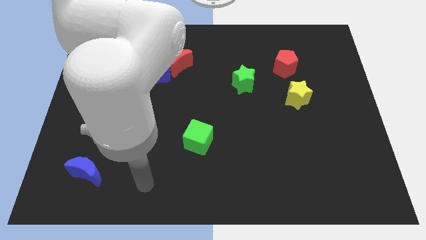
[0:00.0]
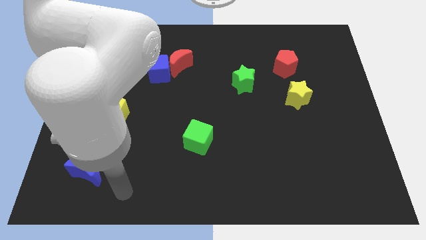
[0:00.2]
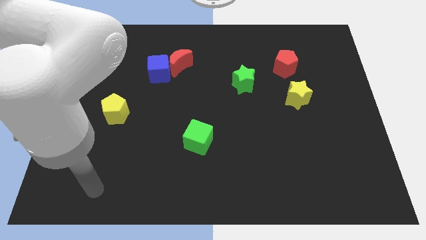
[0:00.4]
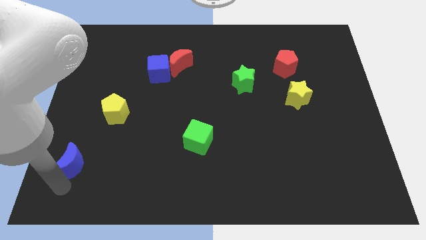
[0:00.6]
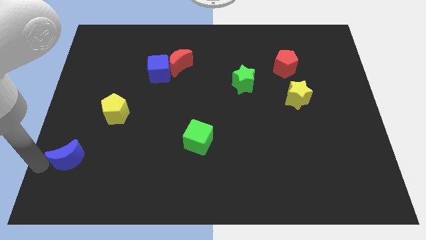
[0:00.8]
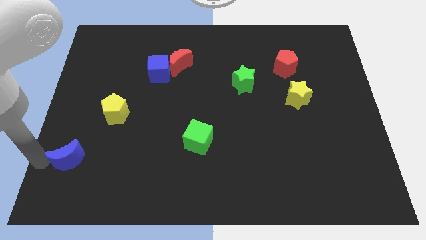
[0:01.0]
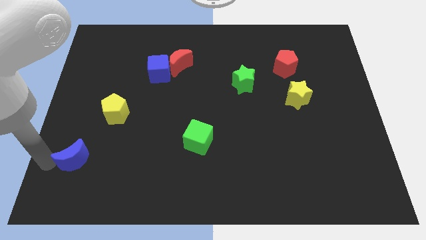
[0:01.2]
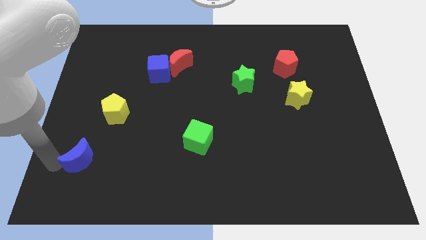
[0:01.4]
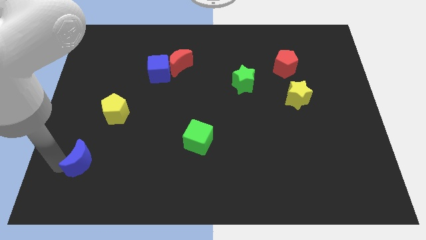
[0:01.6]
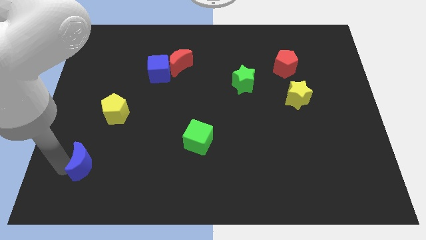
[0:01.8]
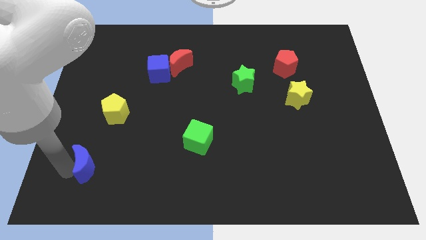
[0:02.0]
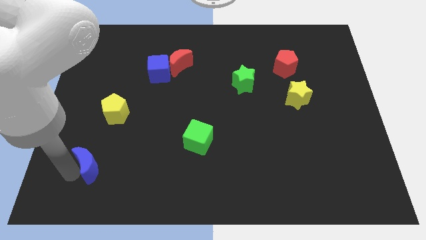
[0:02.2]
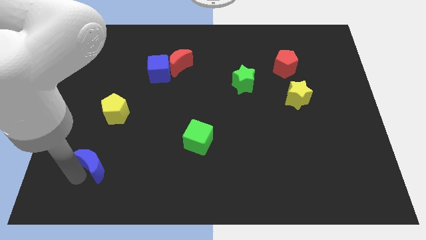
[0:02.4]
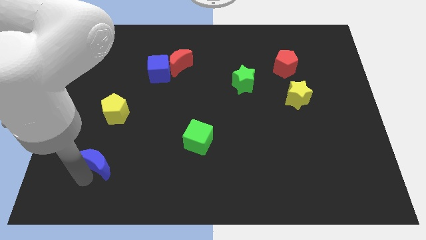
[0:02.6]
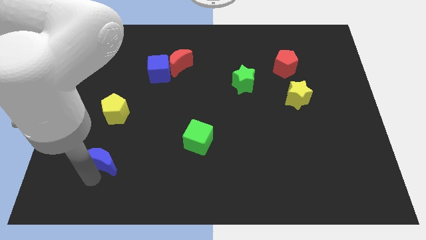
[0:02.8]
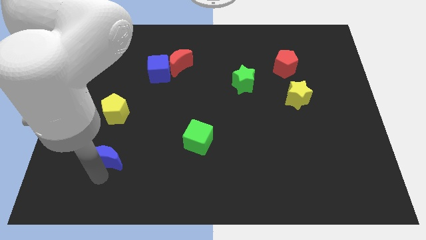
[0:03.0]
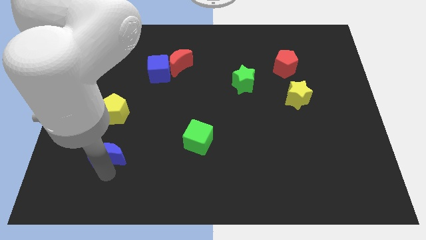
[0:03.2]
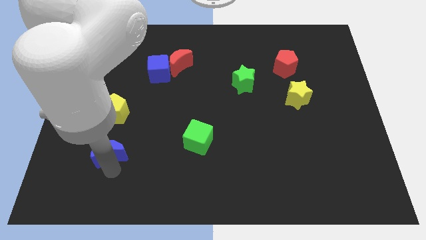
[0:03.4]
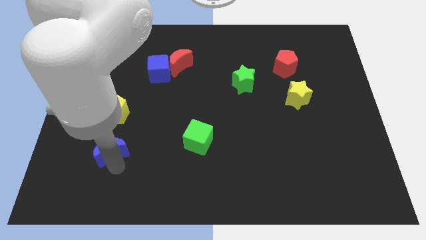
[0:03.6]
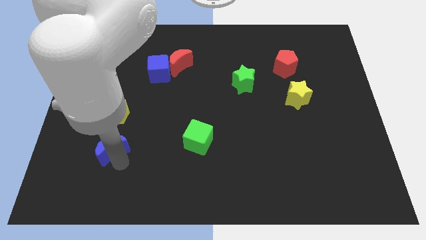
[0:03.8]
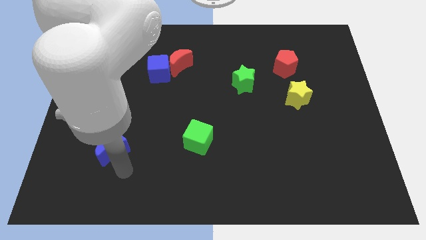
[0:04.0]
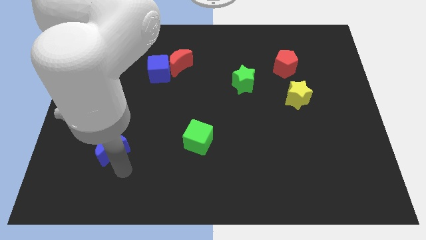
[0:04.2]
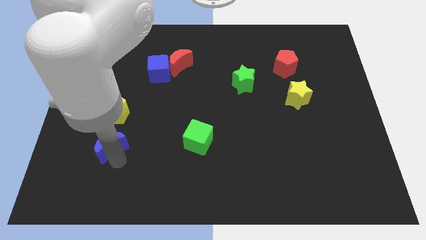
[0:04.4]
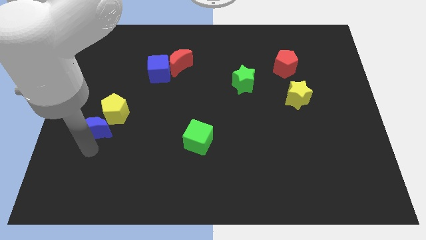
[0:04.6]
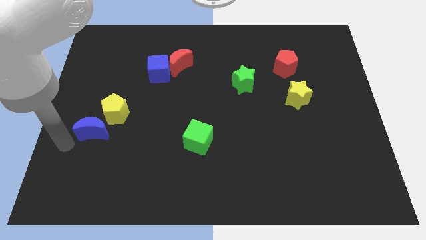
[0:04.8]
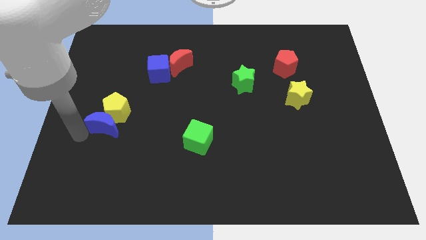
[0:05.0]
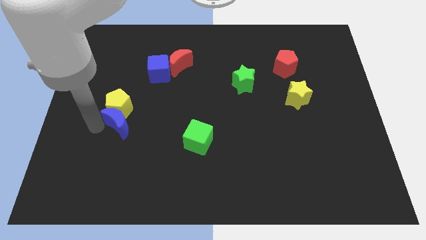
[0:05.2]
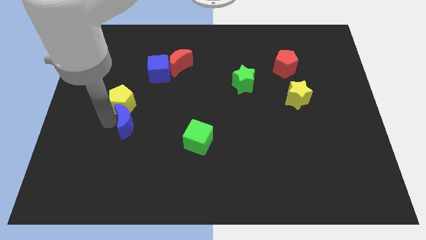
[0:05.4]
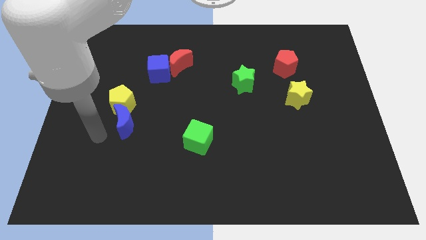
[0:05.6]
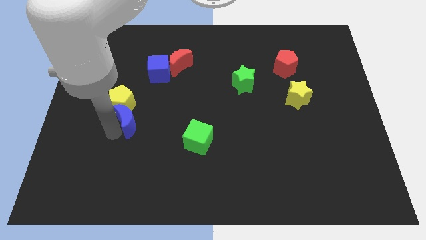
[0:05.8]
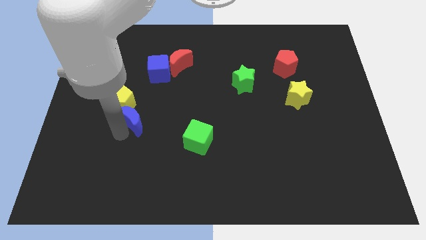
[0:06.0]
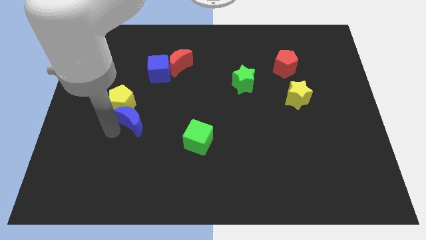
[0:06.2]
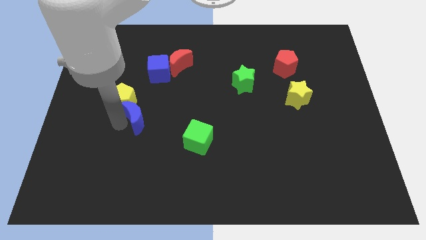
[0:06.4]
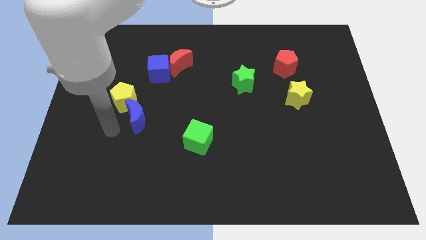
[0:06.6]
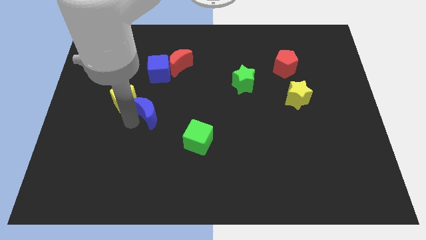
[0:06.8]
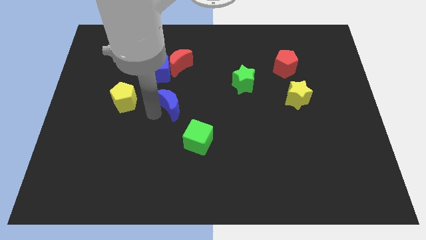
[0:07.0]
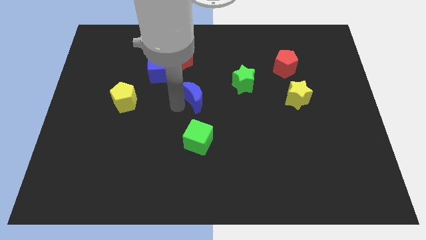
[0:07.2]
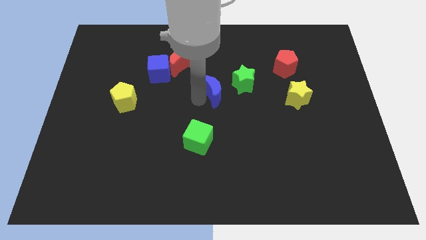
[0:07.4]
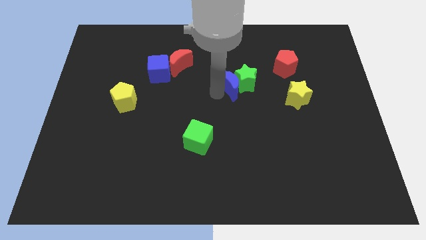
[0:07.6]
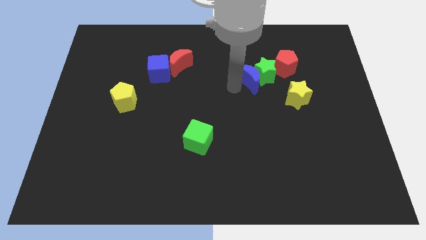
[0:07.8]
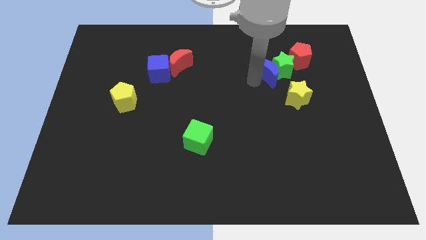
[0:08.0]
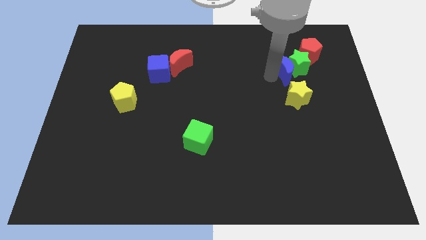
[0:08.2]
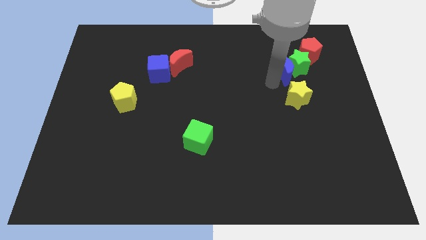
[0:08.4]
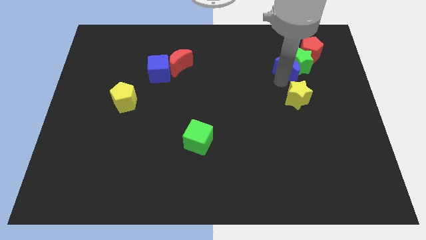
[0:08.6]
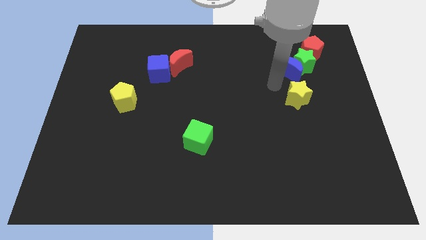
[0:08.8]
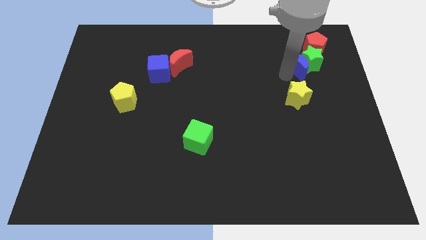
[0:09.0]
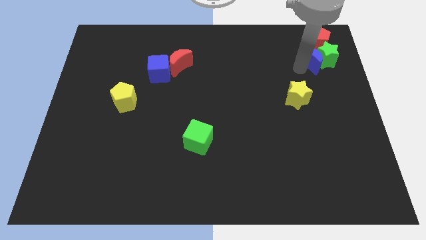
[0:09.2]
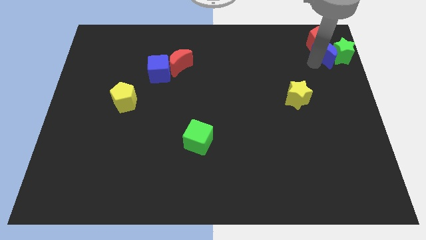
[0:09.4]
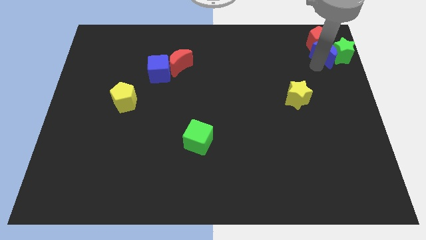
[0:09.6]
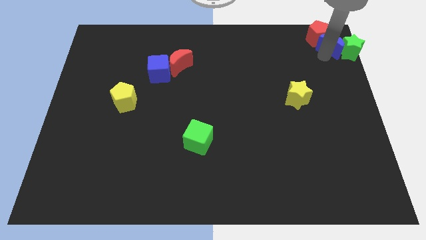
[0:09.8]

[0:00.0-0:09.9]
push the blue moon to the top right

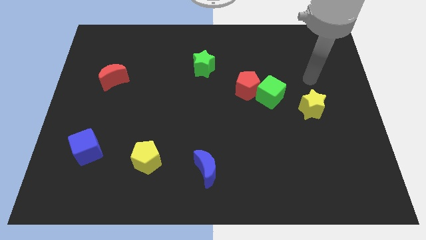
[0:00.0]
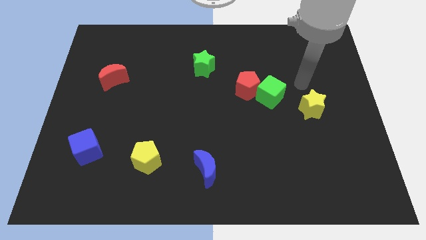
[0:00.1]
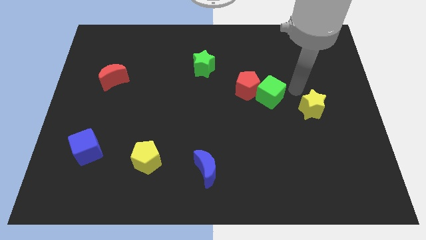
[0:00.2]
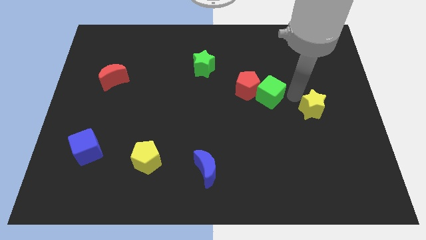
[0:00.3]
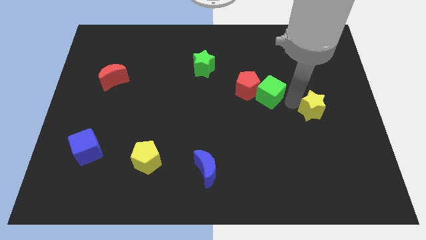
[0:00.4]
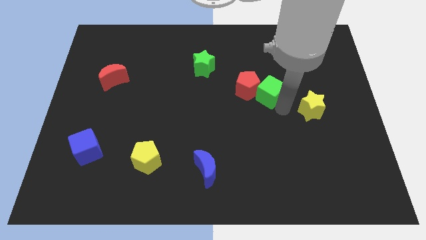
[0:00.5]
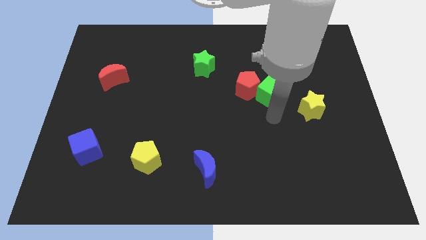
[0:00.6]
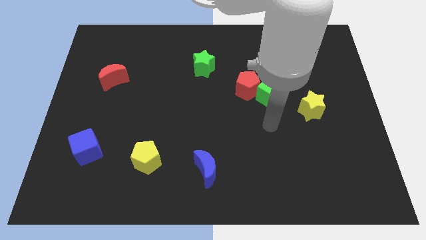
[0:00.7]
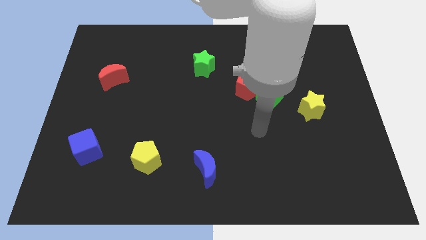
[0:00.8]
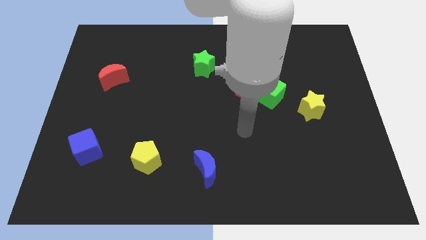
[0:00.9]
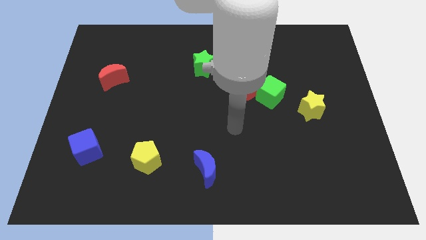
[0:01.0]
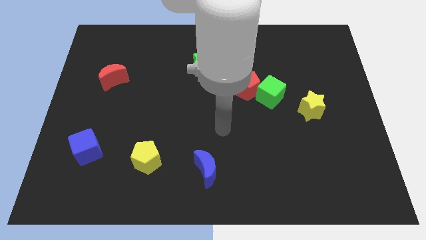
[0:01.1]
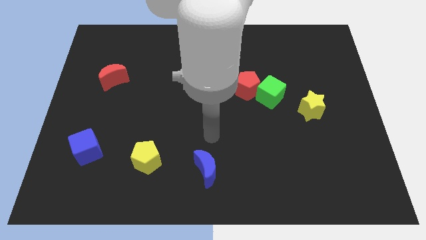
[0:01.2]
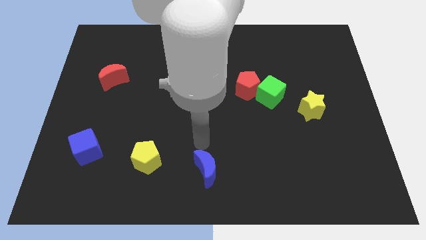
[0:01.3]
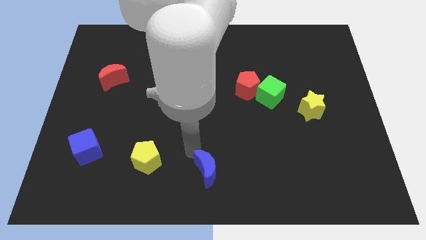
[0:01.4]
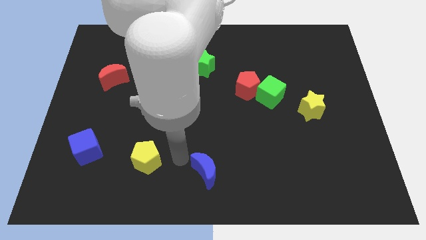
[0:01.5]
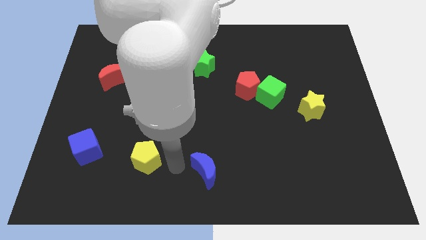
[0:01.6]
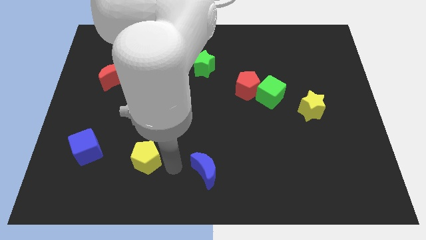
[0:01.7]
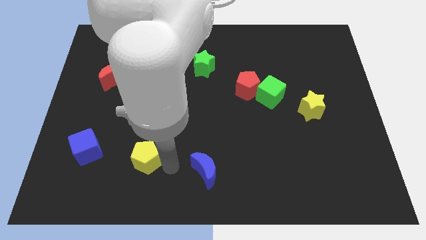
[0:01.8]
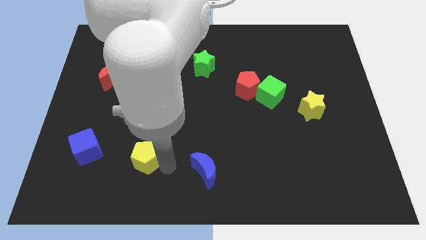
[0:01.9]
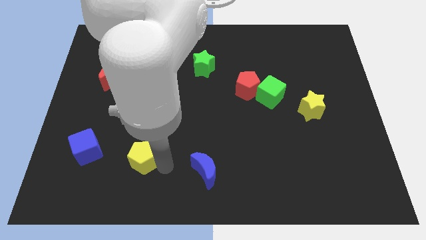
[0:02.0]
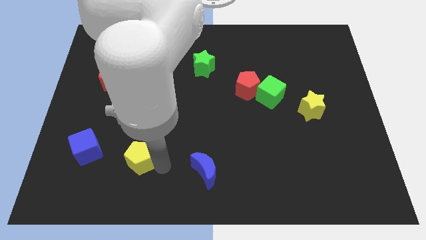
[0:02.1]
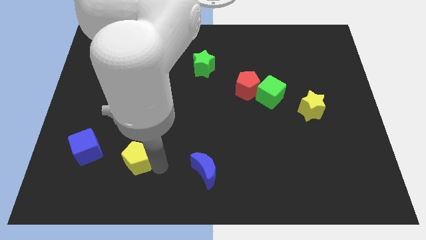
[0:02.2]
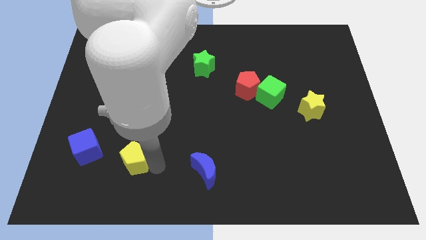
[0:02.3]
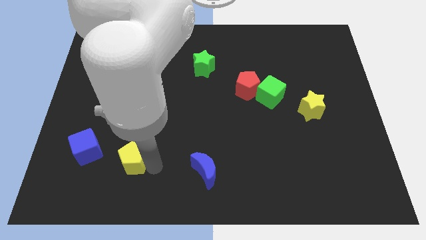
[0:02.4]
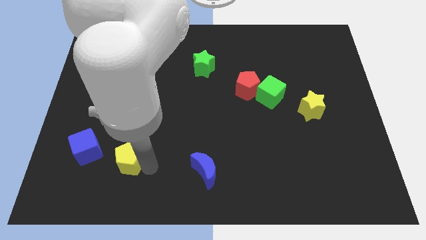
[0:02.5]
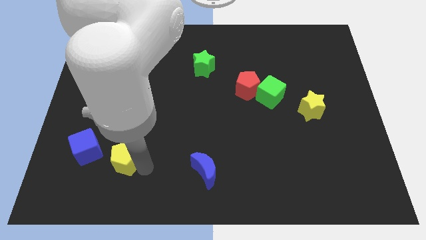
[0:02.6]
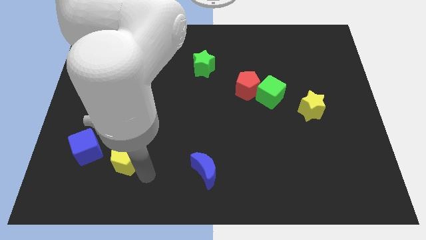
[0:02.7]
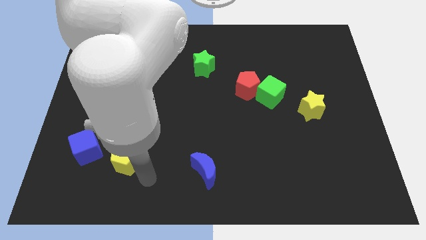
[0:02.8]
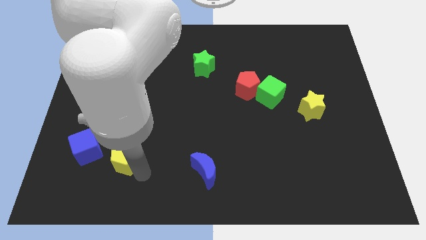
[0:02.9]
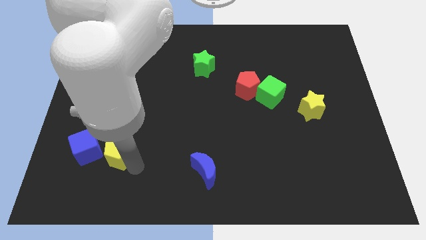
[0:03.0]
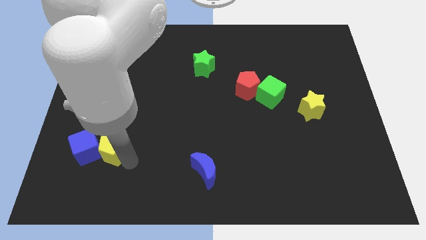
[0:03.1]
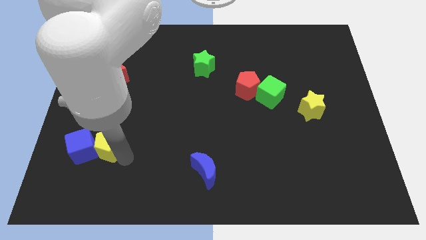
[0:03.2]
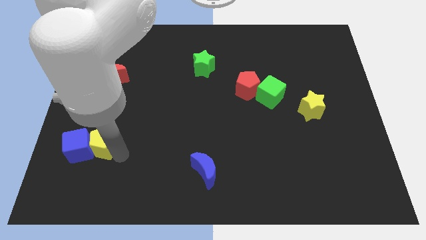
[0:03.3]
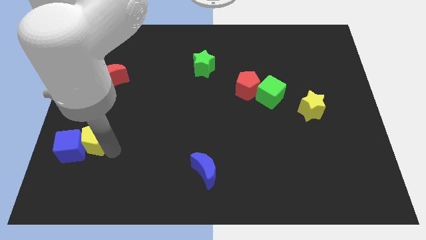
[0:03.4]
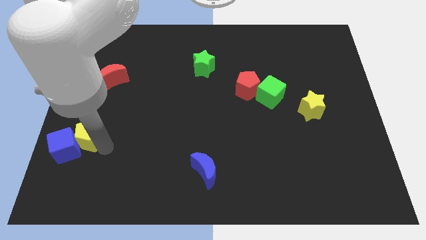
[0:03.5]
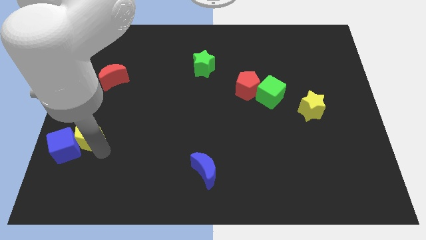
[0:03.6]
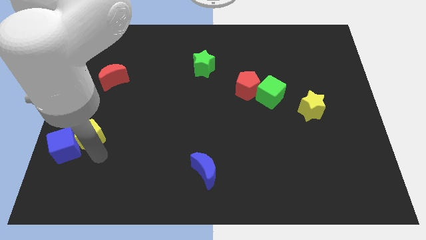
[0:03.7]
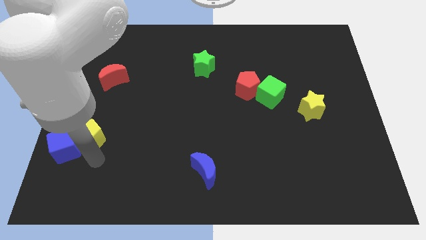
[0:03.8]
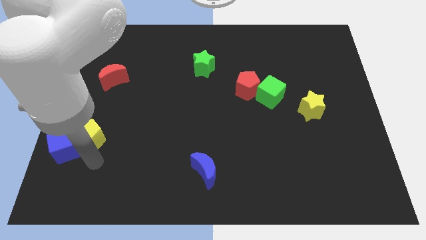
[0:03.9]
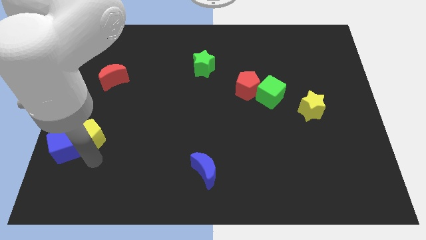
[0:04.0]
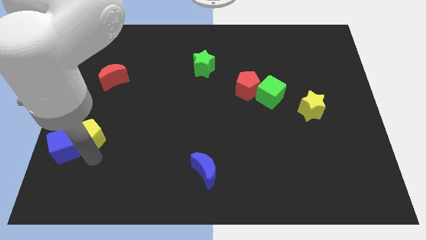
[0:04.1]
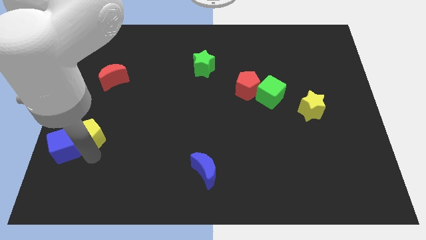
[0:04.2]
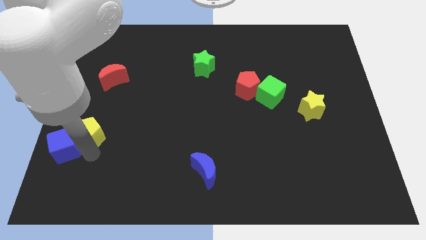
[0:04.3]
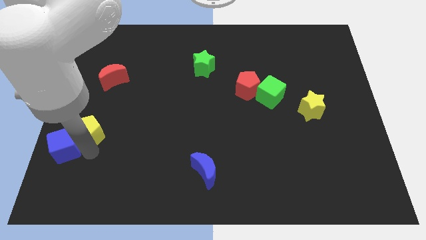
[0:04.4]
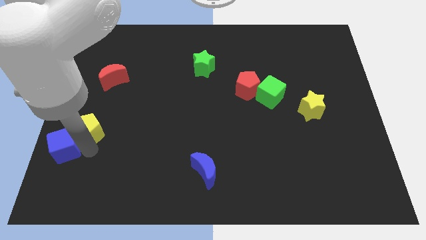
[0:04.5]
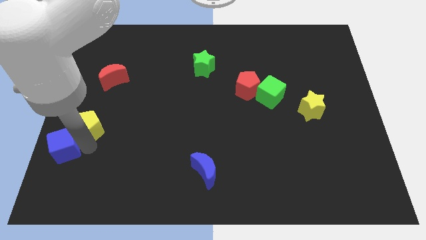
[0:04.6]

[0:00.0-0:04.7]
push the yellow pentagon to the center left
